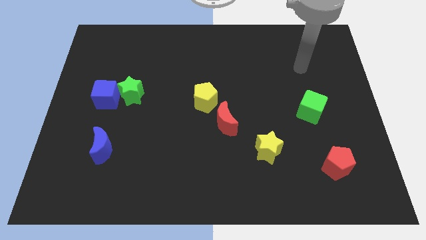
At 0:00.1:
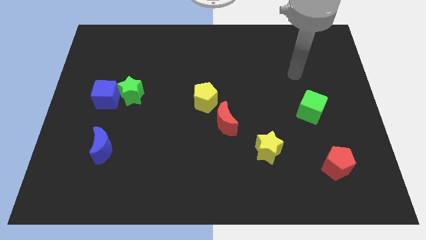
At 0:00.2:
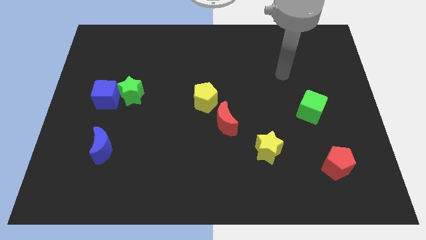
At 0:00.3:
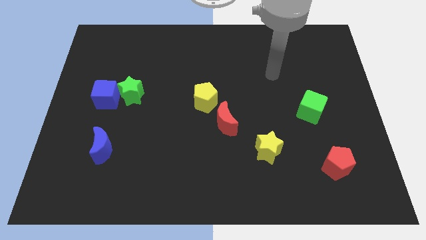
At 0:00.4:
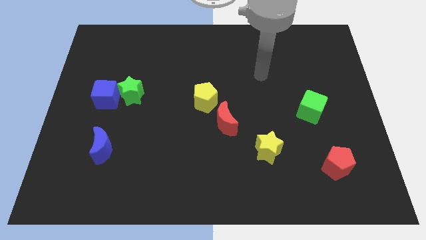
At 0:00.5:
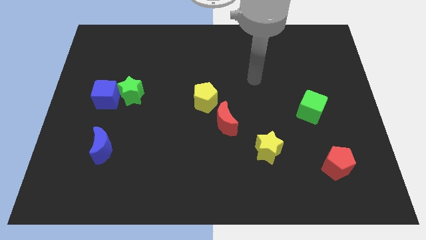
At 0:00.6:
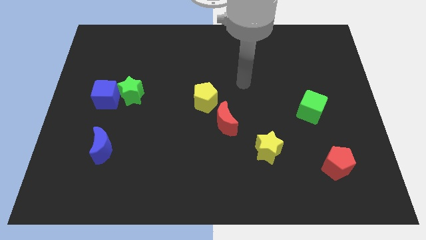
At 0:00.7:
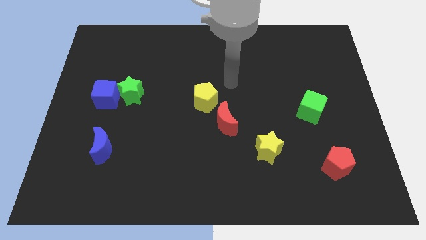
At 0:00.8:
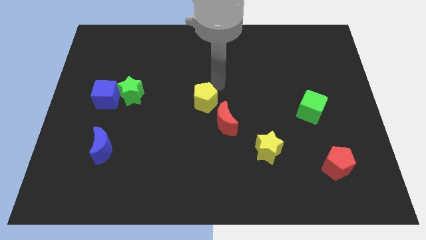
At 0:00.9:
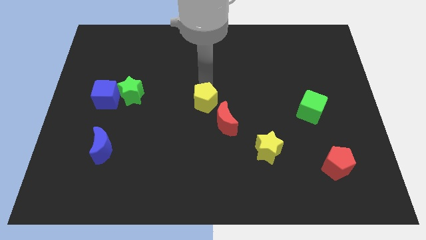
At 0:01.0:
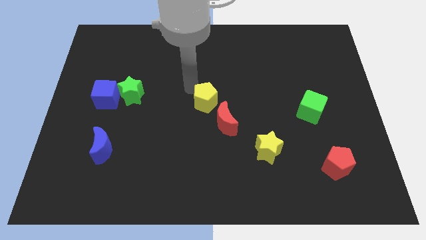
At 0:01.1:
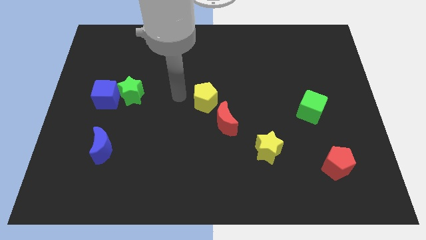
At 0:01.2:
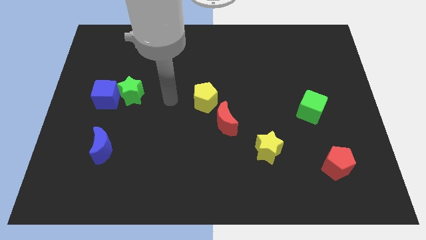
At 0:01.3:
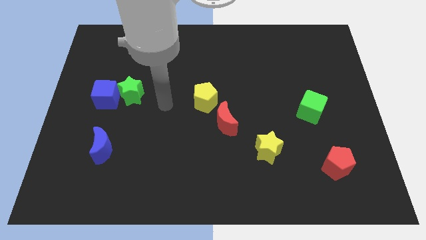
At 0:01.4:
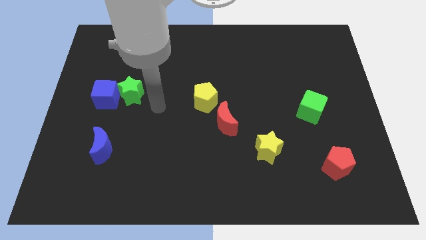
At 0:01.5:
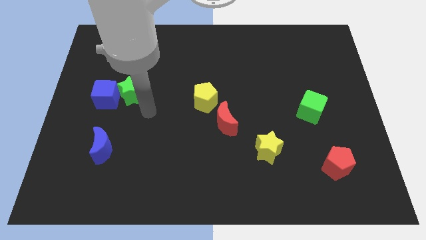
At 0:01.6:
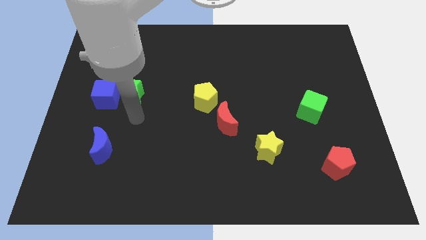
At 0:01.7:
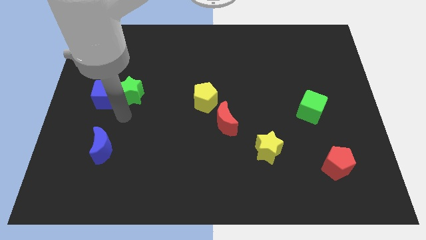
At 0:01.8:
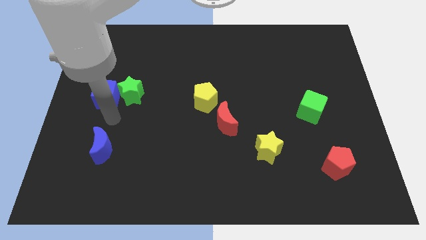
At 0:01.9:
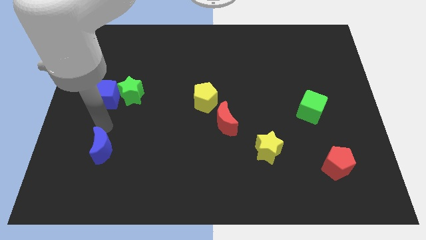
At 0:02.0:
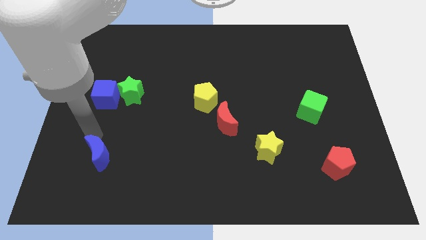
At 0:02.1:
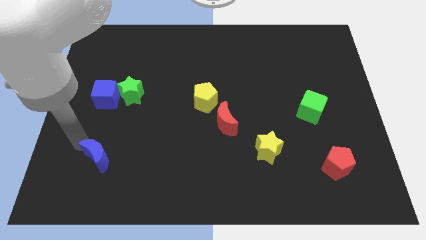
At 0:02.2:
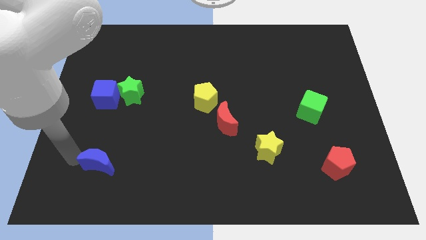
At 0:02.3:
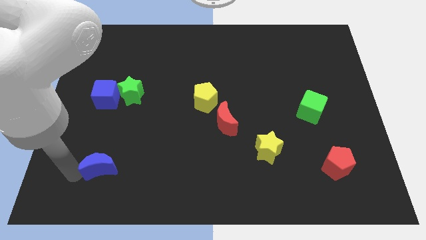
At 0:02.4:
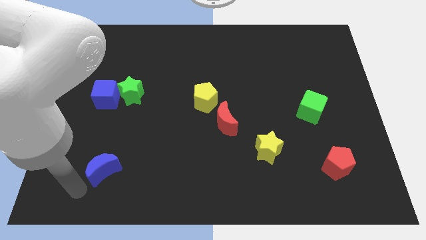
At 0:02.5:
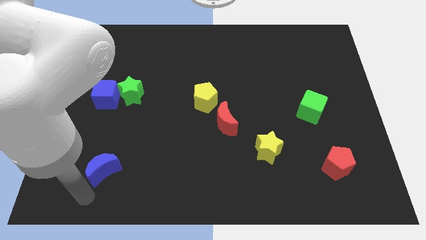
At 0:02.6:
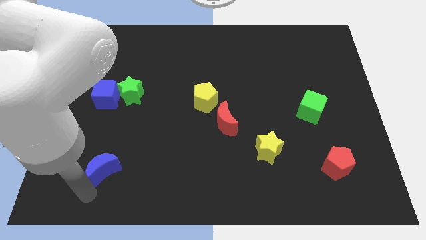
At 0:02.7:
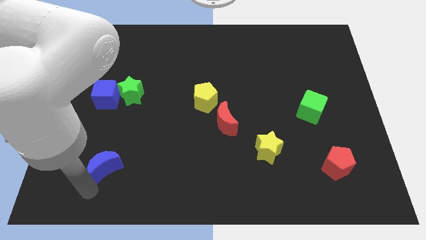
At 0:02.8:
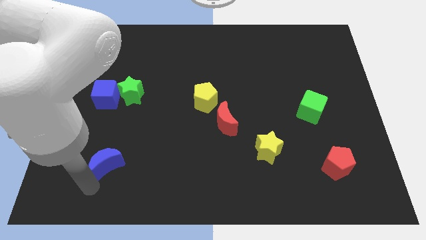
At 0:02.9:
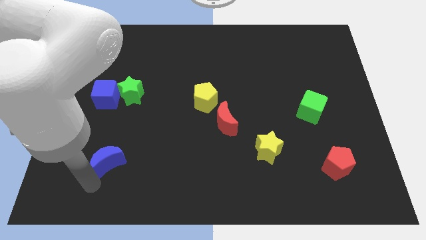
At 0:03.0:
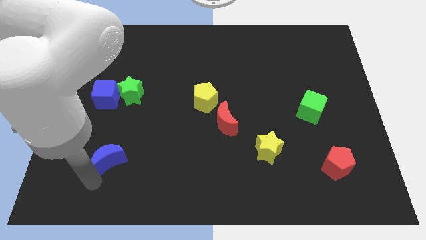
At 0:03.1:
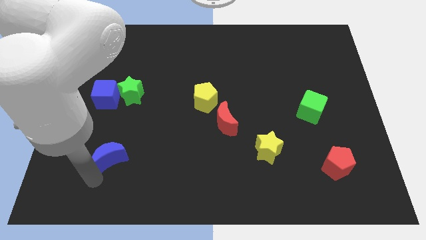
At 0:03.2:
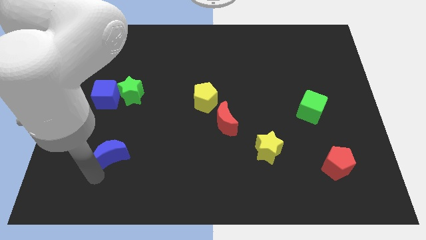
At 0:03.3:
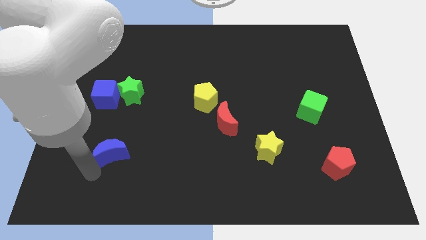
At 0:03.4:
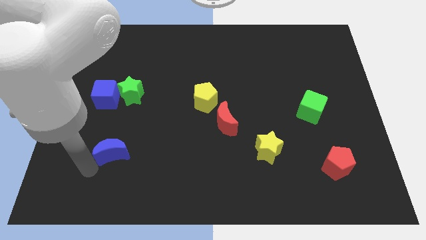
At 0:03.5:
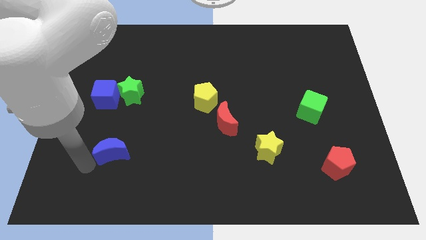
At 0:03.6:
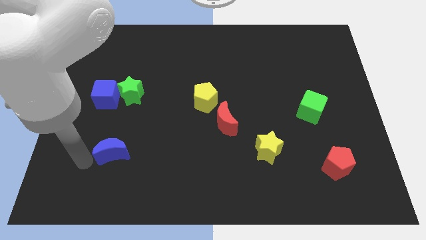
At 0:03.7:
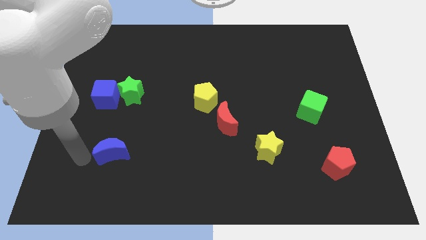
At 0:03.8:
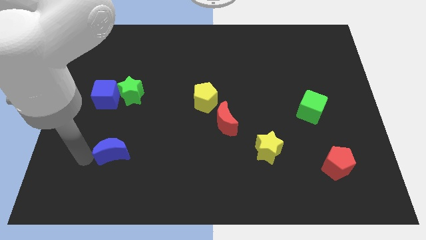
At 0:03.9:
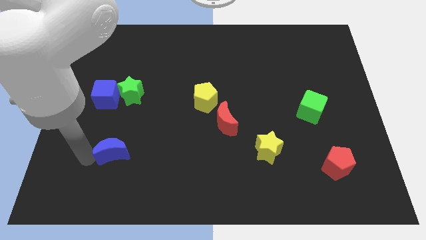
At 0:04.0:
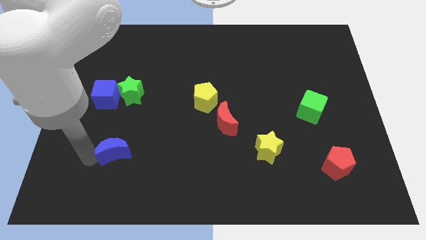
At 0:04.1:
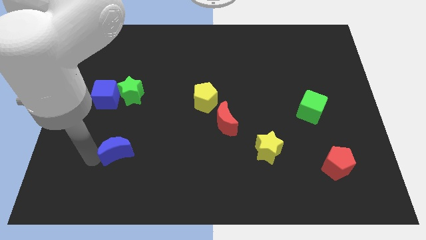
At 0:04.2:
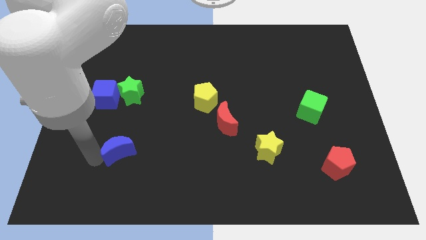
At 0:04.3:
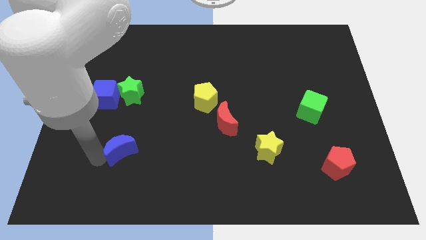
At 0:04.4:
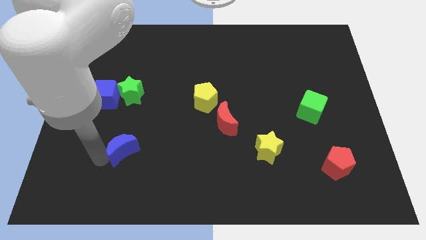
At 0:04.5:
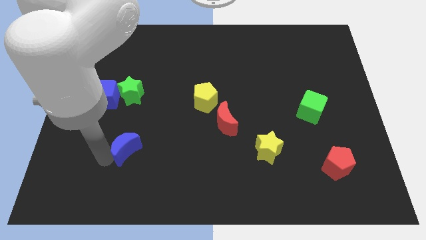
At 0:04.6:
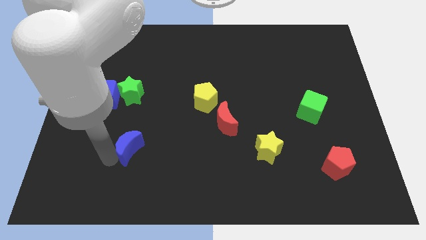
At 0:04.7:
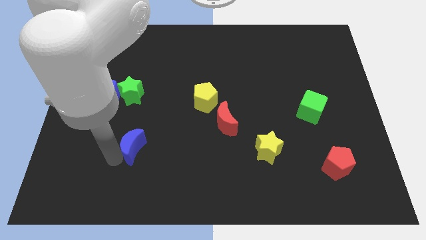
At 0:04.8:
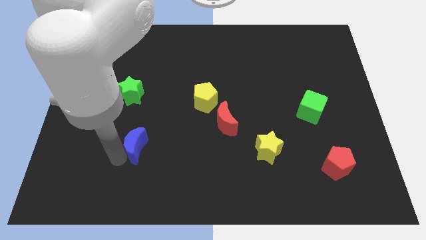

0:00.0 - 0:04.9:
slide the blue moon to the right a little

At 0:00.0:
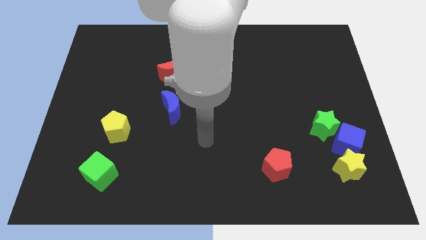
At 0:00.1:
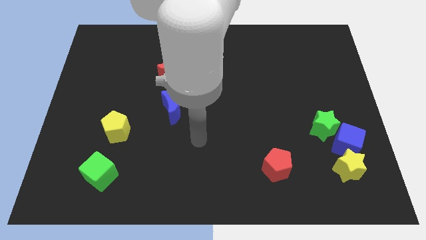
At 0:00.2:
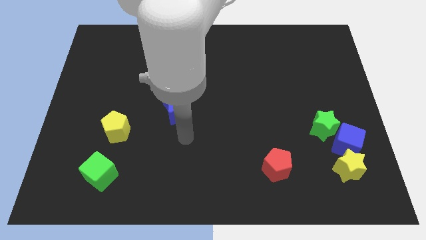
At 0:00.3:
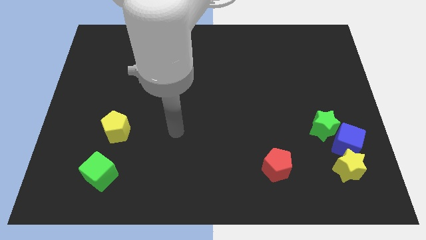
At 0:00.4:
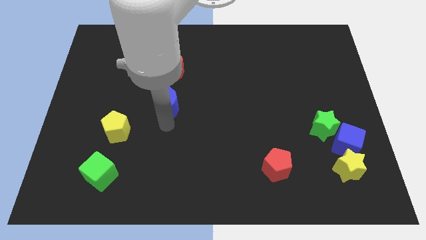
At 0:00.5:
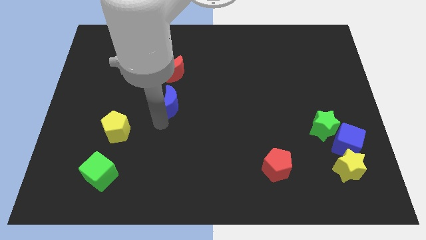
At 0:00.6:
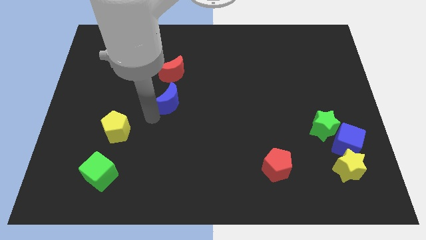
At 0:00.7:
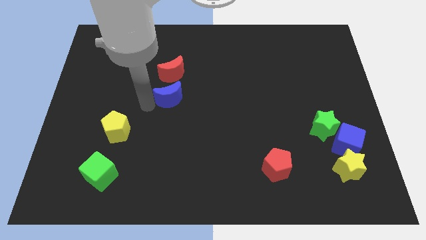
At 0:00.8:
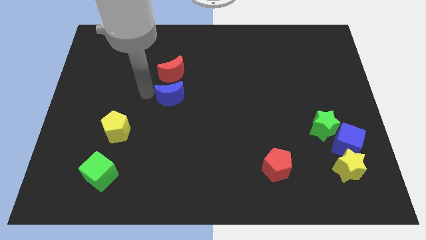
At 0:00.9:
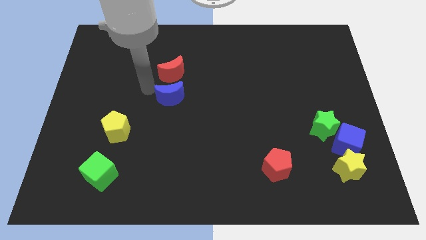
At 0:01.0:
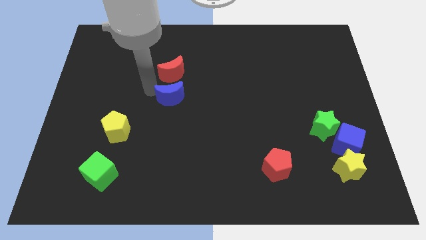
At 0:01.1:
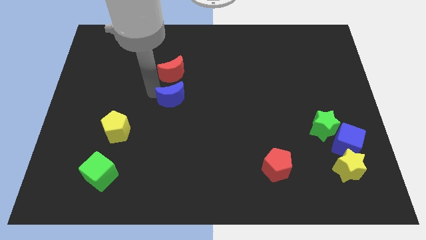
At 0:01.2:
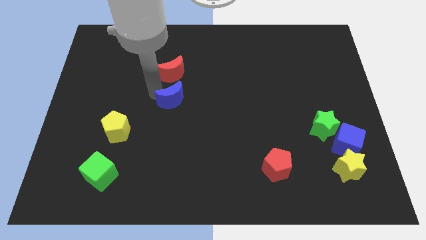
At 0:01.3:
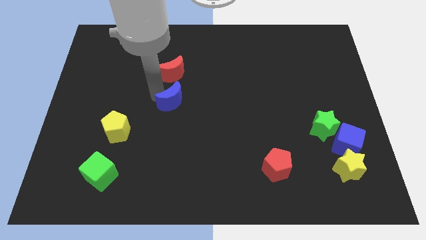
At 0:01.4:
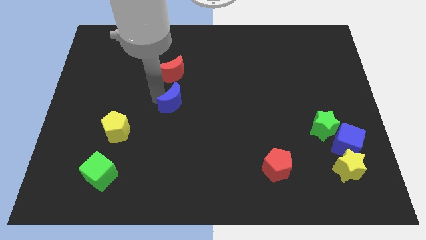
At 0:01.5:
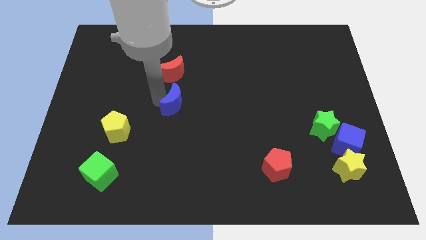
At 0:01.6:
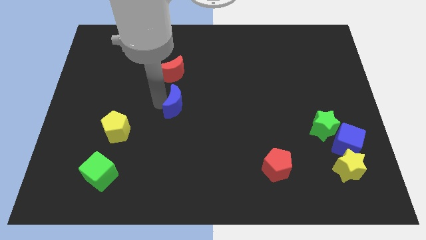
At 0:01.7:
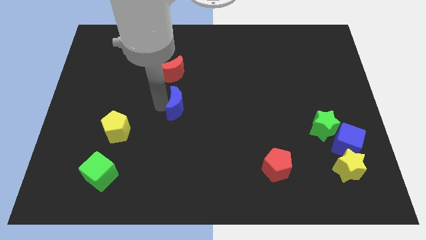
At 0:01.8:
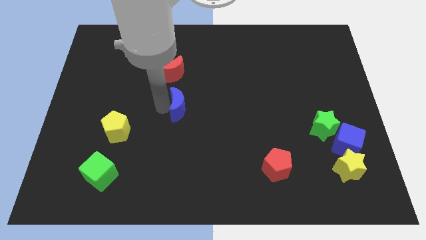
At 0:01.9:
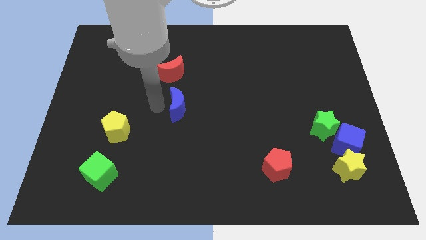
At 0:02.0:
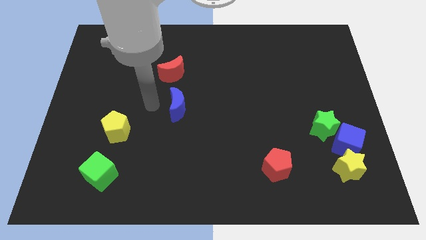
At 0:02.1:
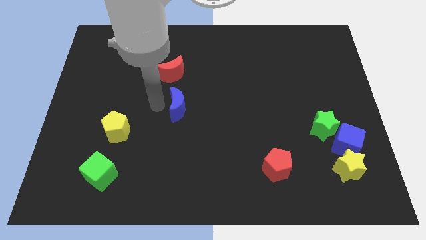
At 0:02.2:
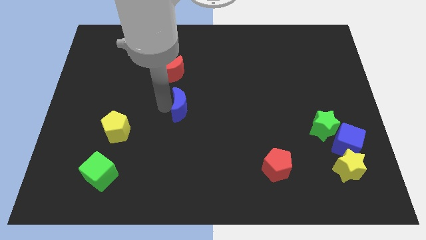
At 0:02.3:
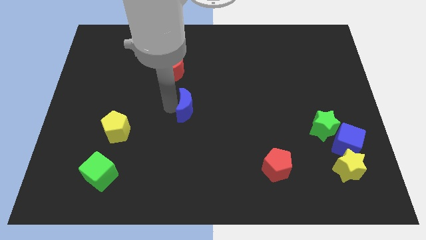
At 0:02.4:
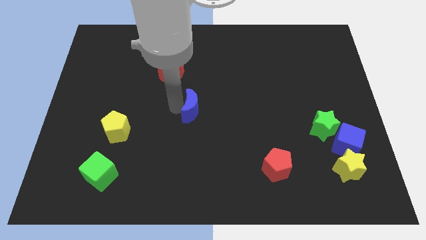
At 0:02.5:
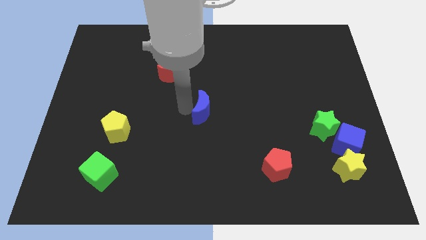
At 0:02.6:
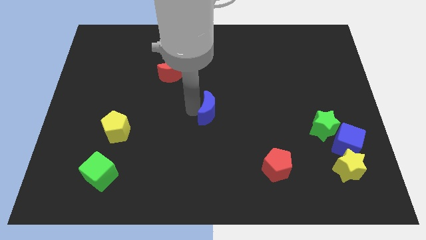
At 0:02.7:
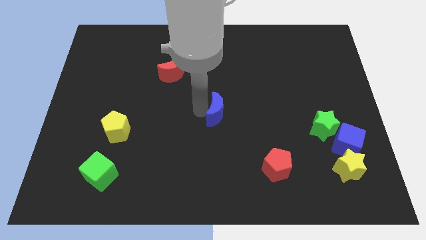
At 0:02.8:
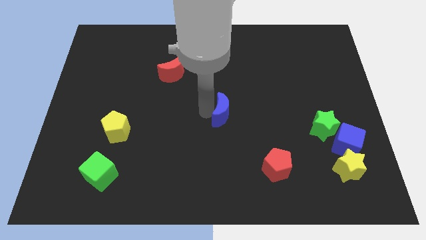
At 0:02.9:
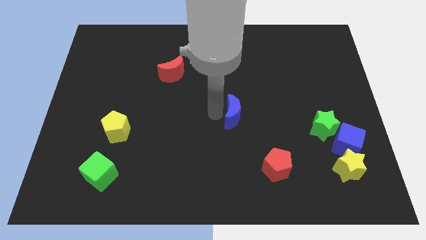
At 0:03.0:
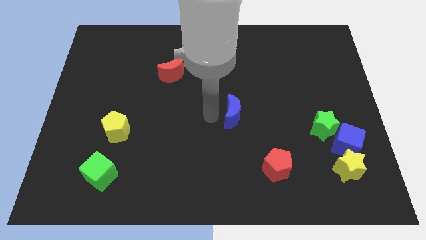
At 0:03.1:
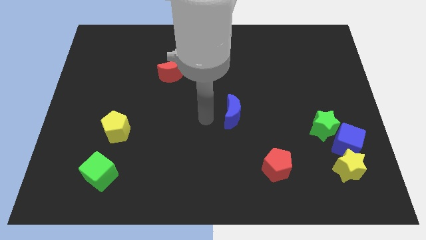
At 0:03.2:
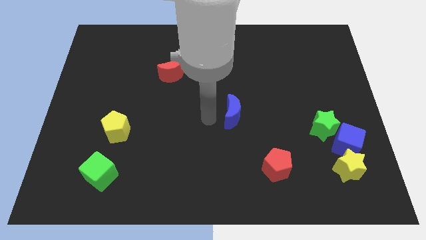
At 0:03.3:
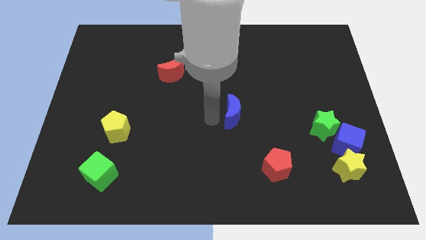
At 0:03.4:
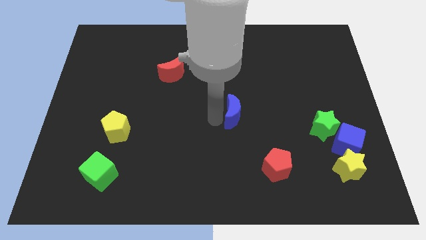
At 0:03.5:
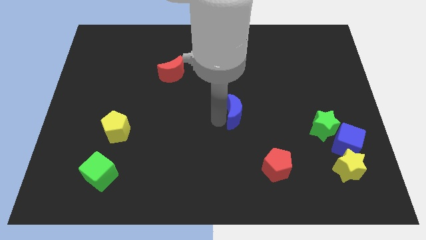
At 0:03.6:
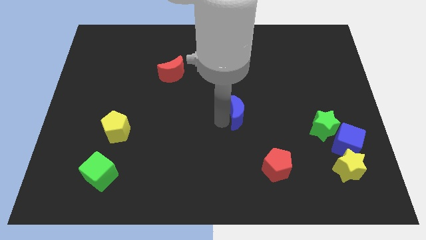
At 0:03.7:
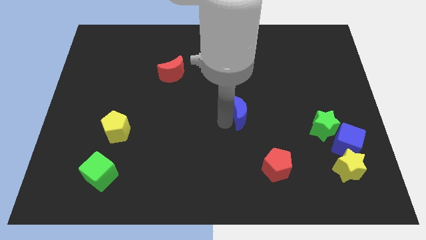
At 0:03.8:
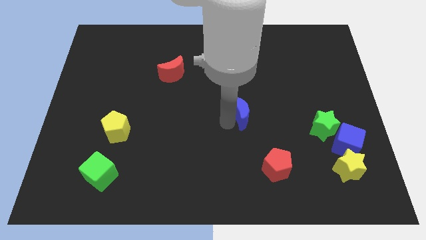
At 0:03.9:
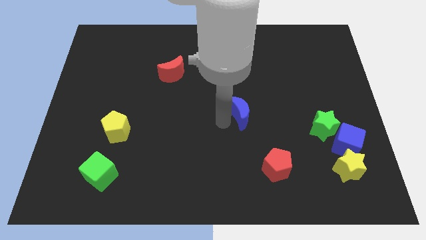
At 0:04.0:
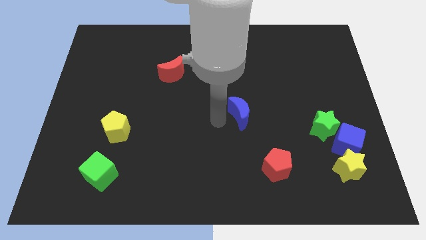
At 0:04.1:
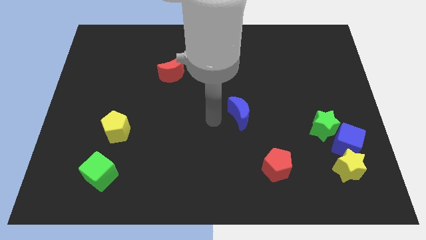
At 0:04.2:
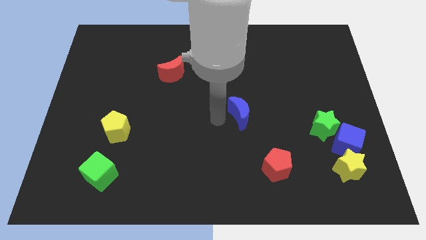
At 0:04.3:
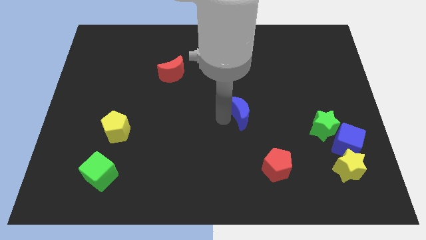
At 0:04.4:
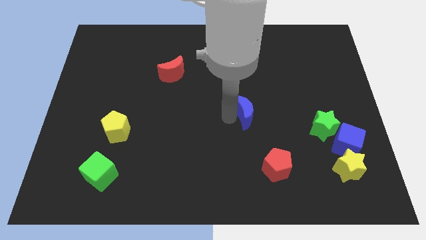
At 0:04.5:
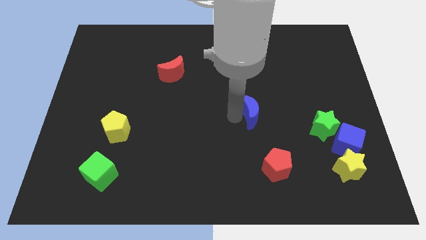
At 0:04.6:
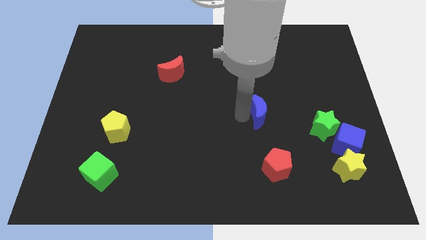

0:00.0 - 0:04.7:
push the blue moon to the right
